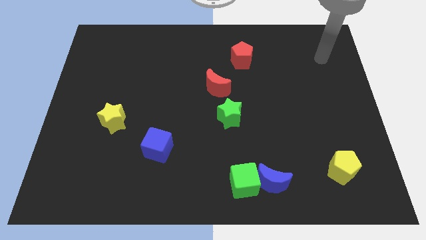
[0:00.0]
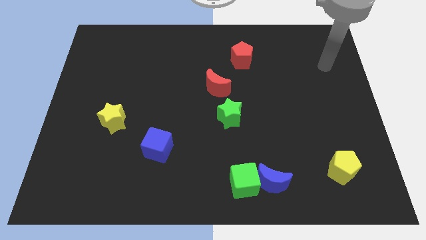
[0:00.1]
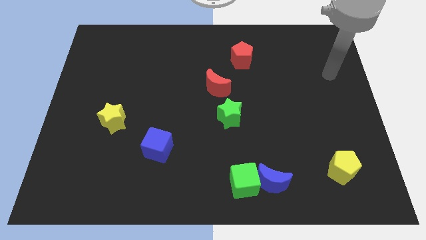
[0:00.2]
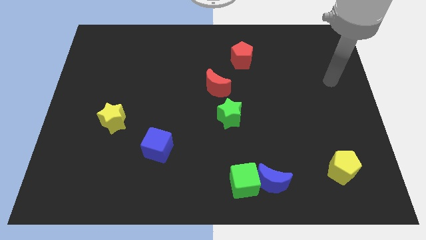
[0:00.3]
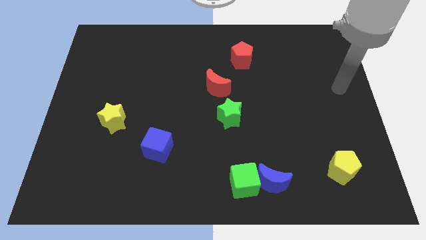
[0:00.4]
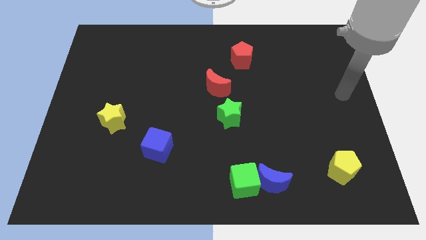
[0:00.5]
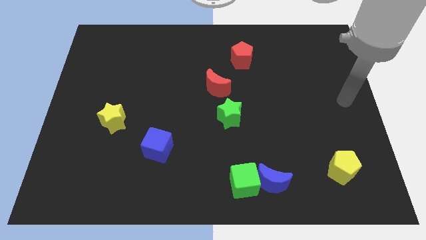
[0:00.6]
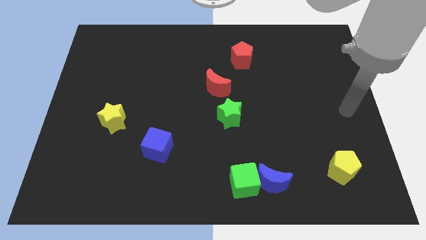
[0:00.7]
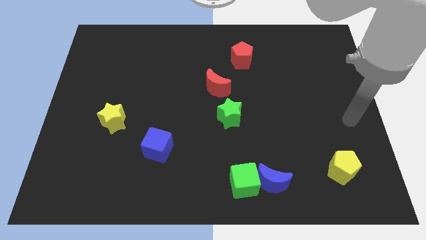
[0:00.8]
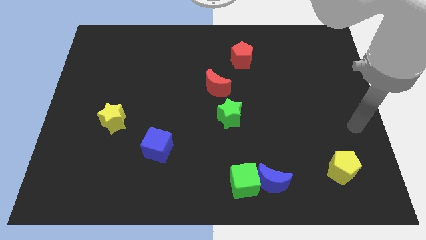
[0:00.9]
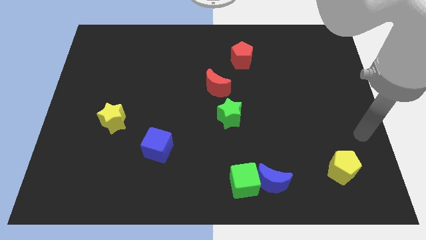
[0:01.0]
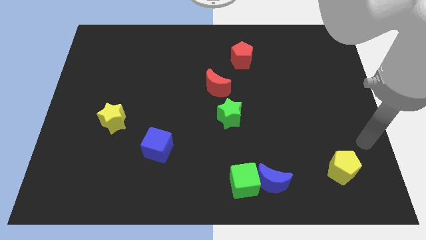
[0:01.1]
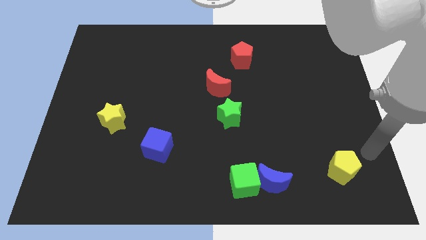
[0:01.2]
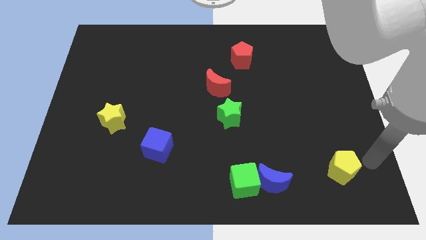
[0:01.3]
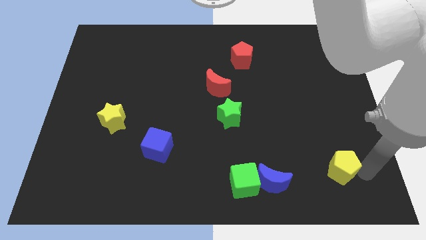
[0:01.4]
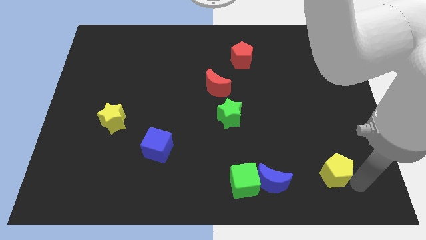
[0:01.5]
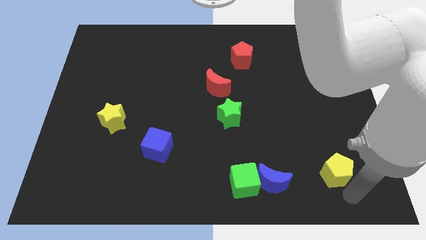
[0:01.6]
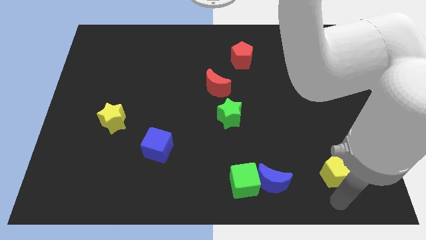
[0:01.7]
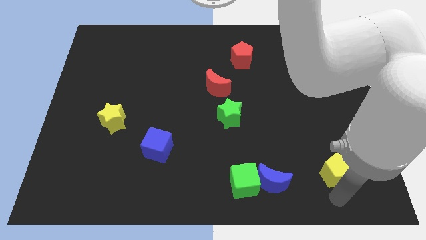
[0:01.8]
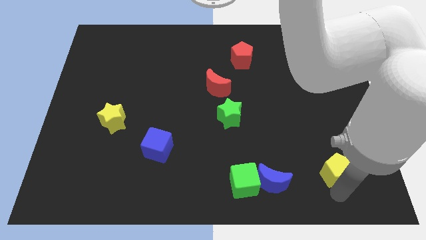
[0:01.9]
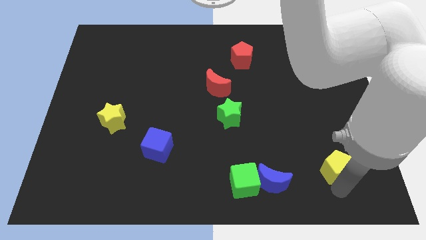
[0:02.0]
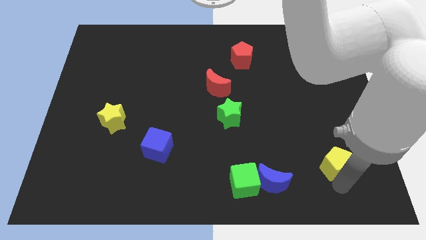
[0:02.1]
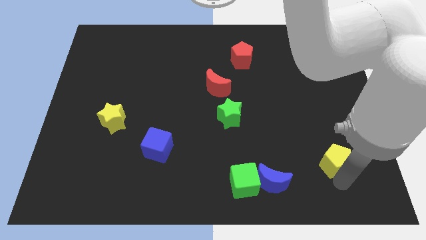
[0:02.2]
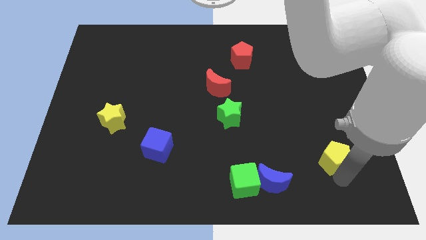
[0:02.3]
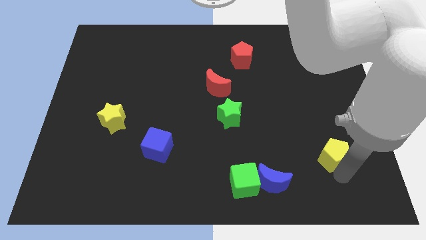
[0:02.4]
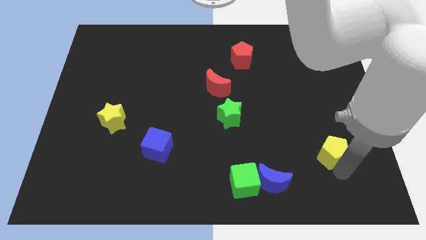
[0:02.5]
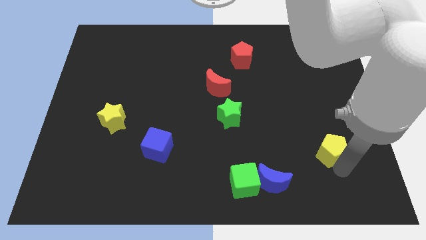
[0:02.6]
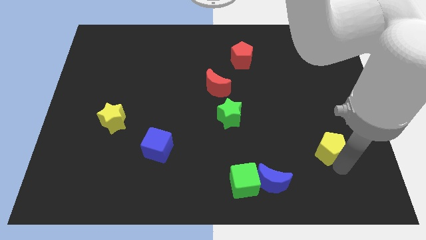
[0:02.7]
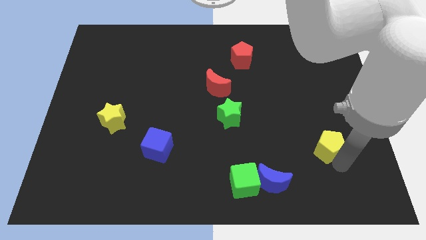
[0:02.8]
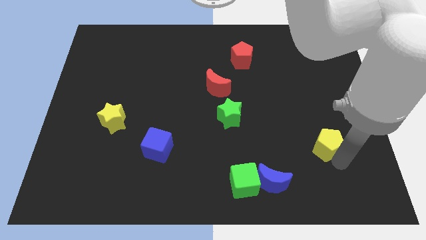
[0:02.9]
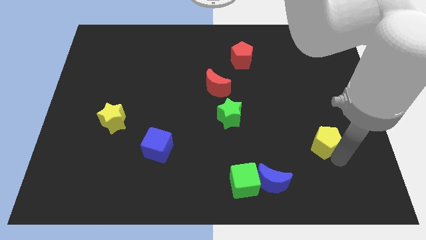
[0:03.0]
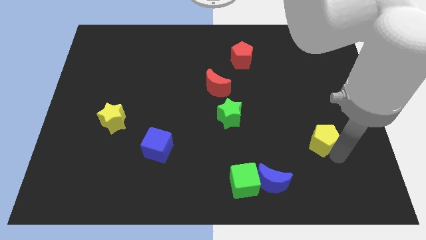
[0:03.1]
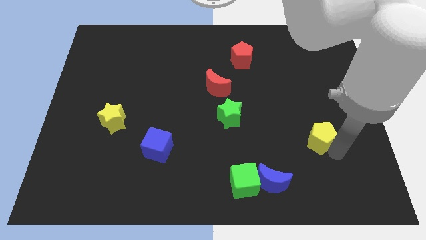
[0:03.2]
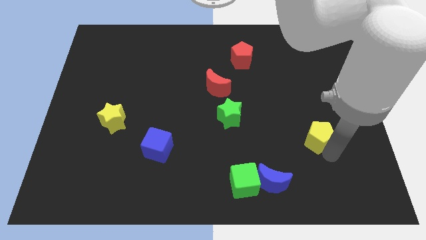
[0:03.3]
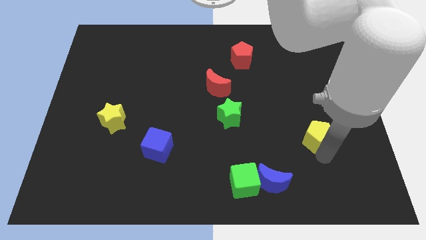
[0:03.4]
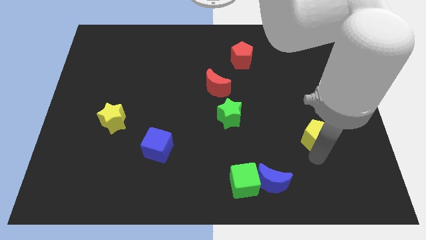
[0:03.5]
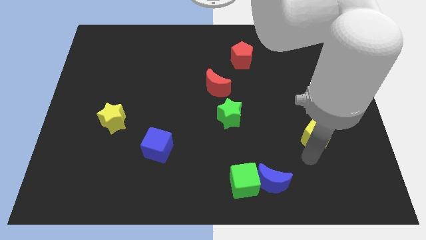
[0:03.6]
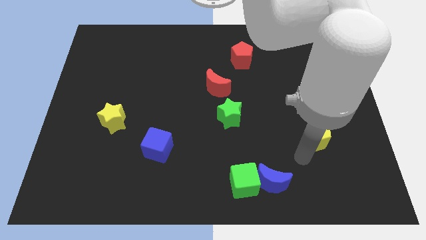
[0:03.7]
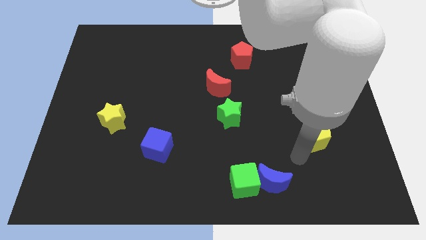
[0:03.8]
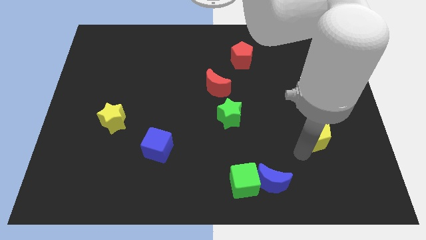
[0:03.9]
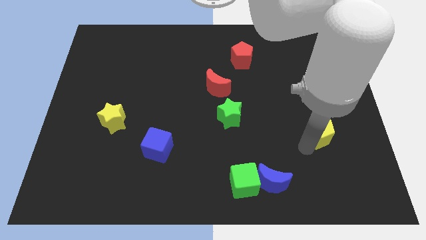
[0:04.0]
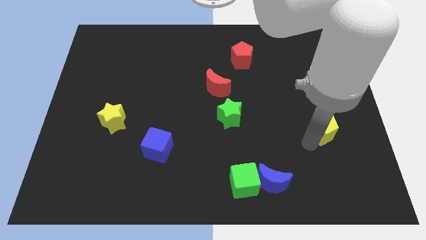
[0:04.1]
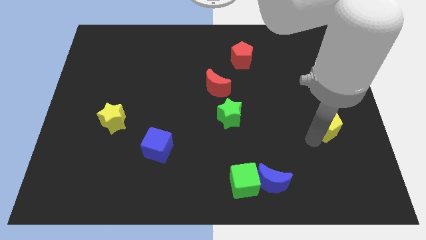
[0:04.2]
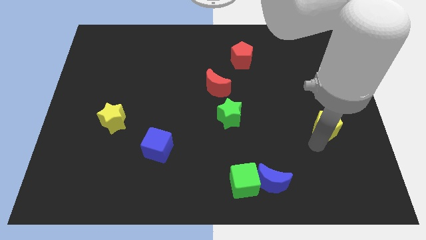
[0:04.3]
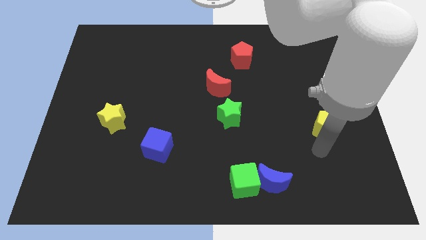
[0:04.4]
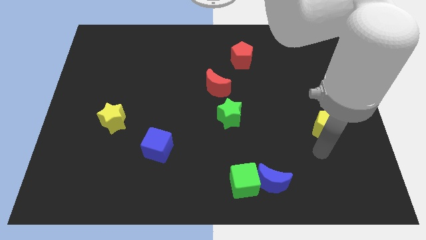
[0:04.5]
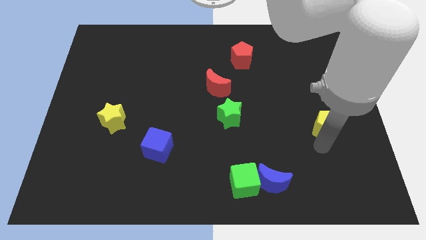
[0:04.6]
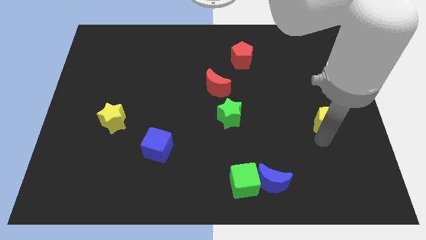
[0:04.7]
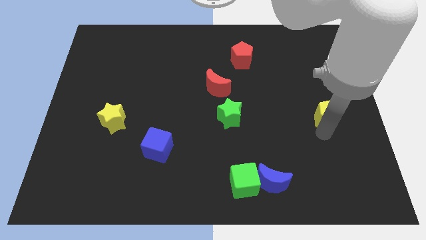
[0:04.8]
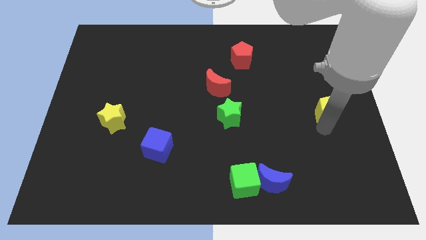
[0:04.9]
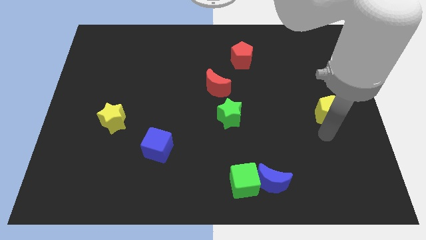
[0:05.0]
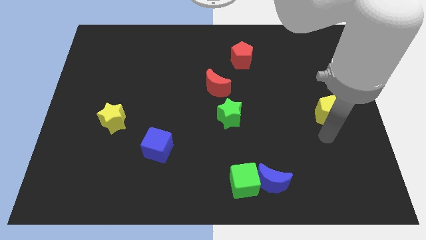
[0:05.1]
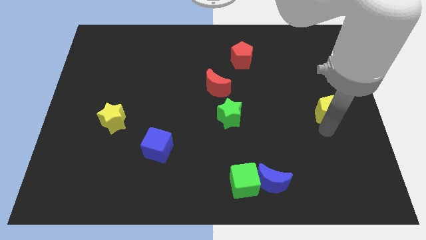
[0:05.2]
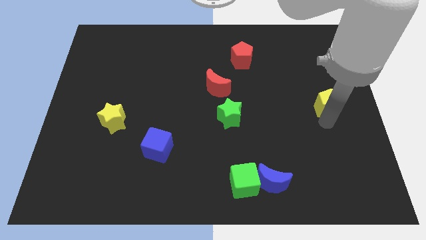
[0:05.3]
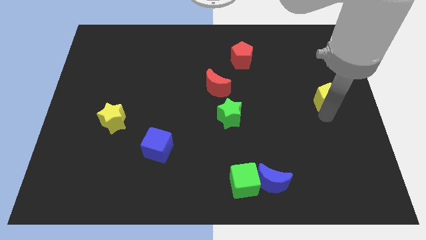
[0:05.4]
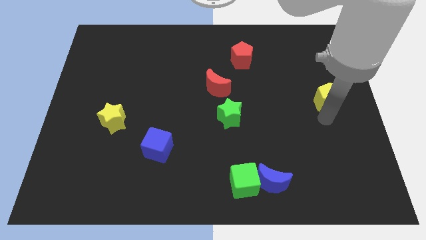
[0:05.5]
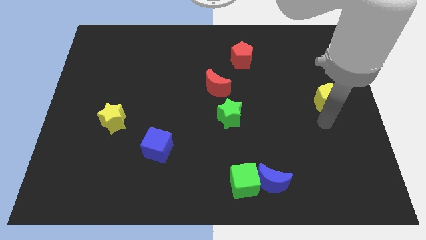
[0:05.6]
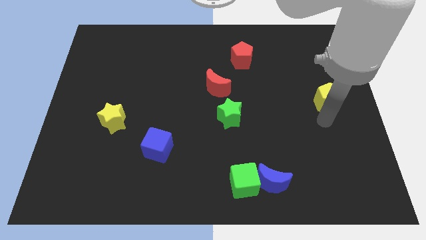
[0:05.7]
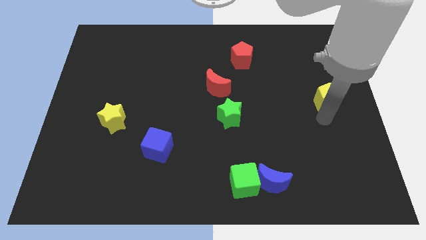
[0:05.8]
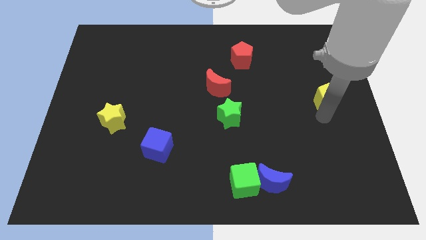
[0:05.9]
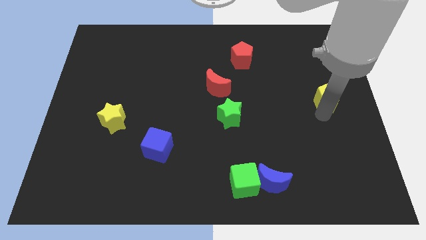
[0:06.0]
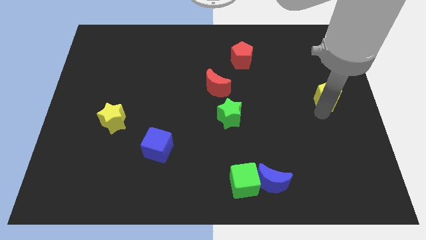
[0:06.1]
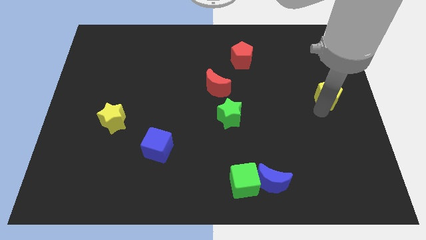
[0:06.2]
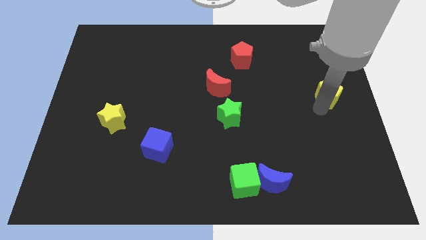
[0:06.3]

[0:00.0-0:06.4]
slide the yellow pentagon up

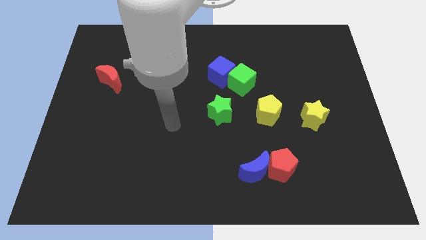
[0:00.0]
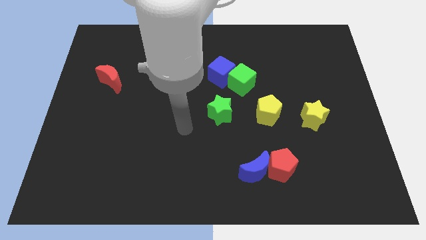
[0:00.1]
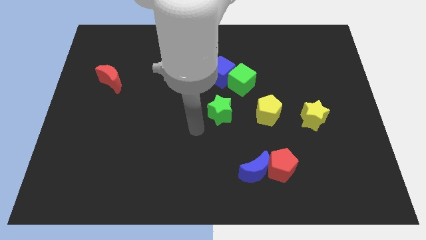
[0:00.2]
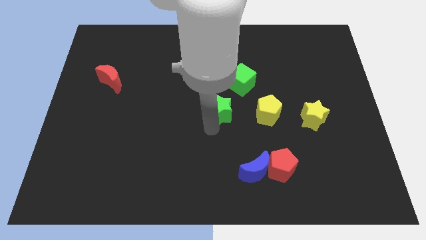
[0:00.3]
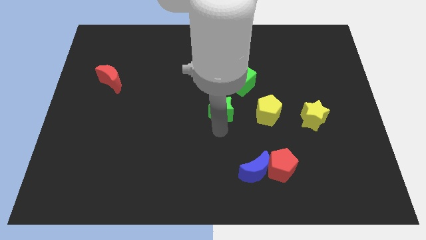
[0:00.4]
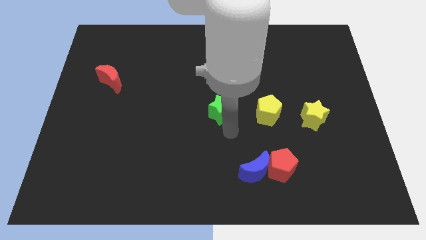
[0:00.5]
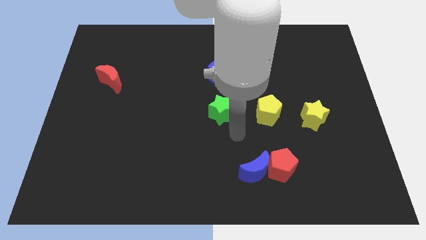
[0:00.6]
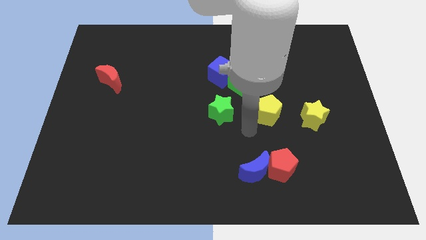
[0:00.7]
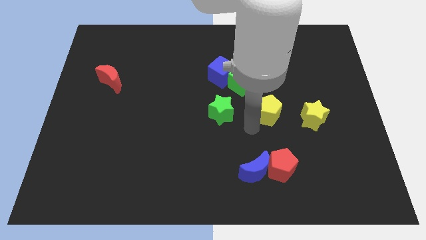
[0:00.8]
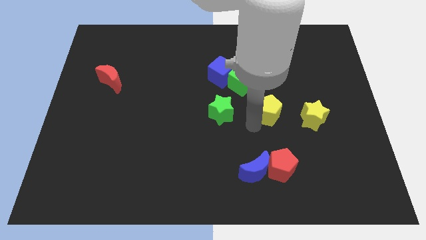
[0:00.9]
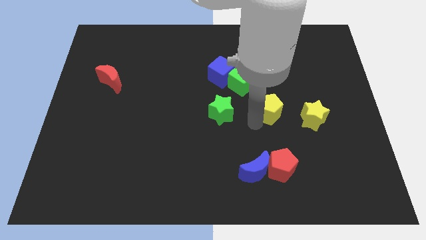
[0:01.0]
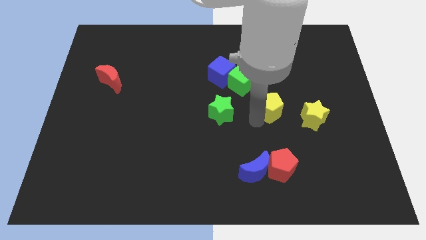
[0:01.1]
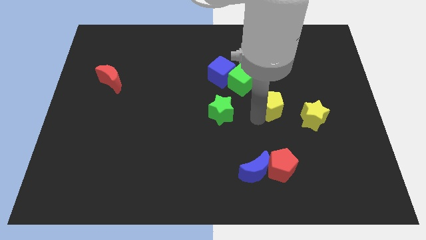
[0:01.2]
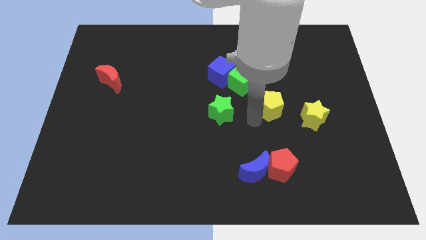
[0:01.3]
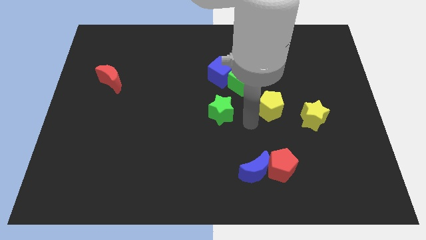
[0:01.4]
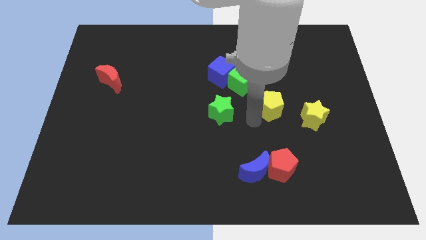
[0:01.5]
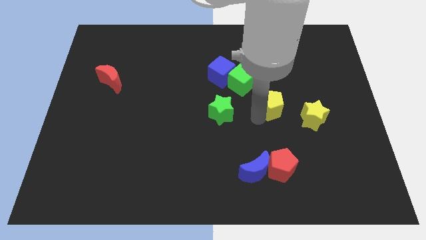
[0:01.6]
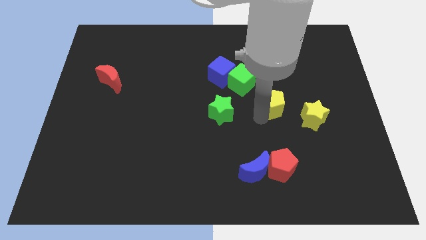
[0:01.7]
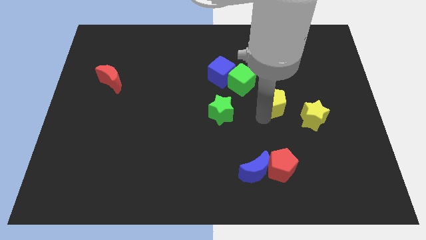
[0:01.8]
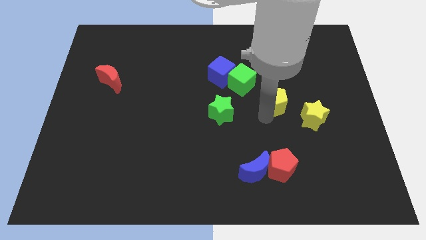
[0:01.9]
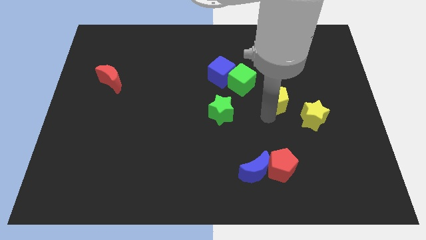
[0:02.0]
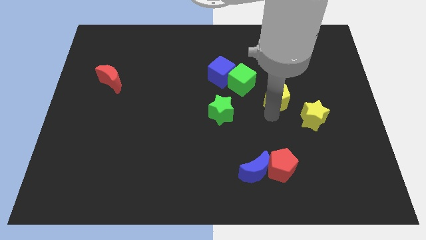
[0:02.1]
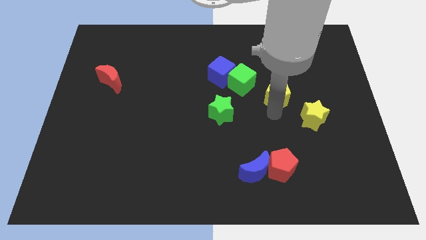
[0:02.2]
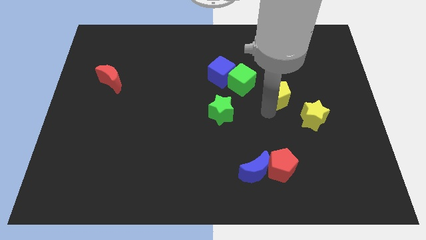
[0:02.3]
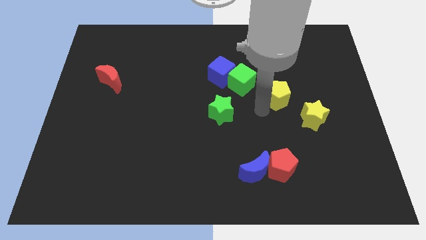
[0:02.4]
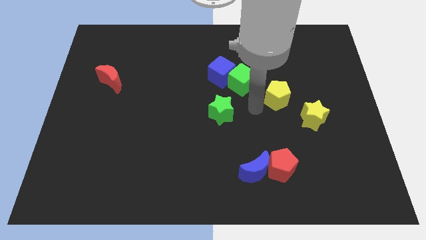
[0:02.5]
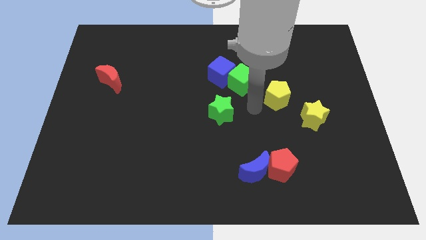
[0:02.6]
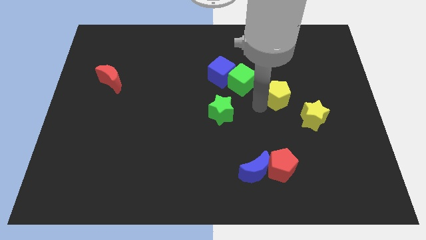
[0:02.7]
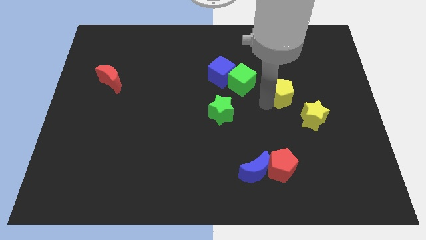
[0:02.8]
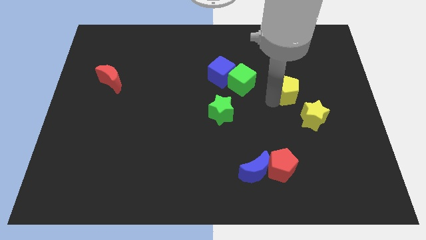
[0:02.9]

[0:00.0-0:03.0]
move the yellow pentagon somewhat diagonally up and to the right
